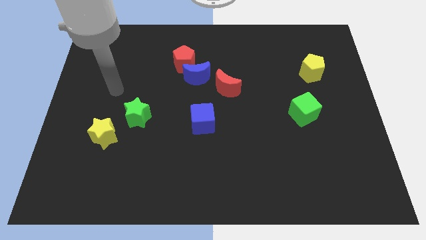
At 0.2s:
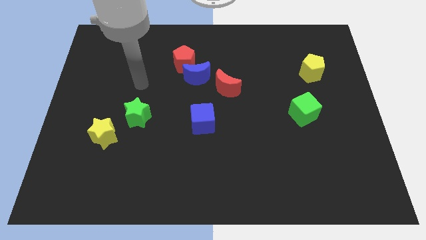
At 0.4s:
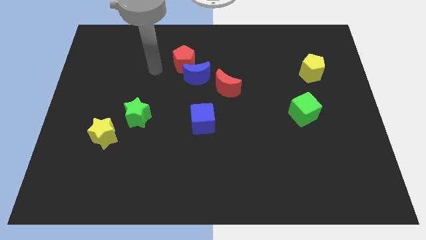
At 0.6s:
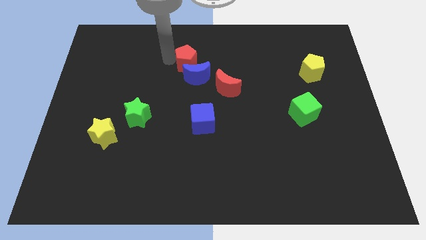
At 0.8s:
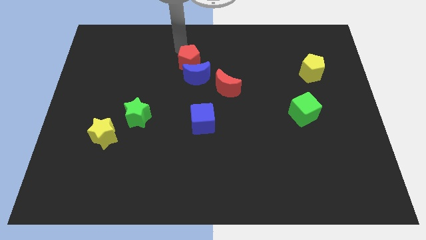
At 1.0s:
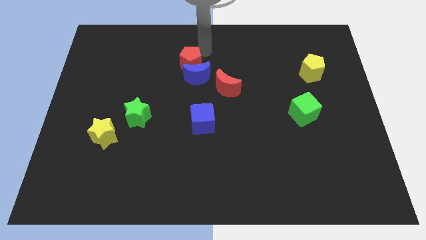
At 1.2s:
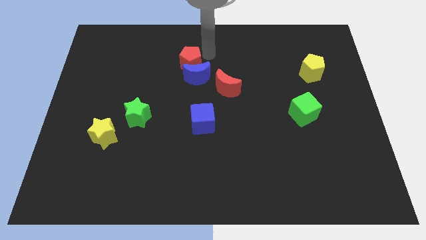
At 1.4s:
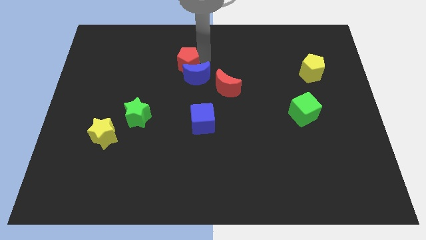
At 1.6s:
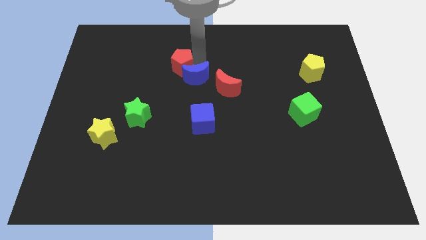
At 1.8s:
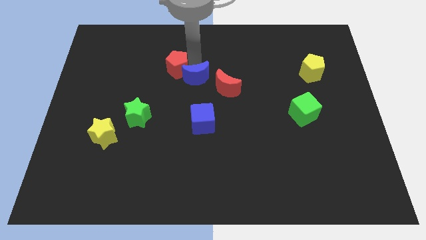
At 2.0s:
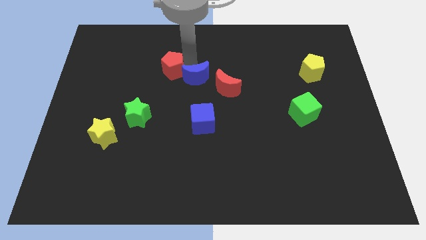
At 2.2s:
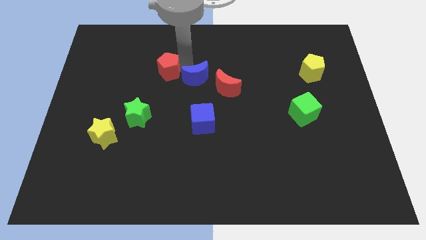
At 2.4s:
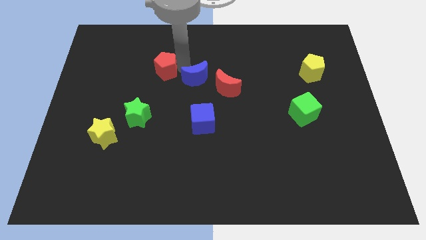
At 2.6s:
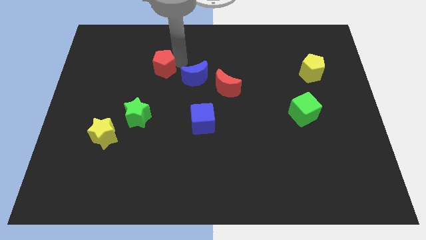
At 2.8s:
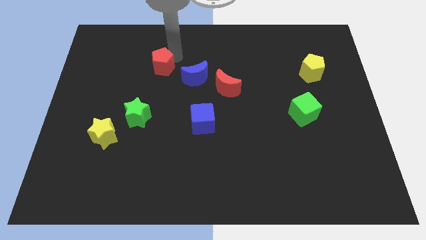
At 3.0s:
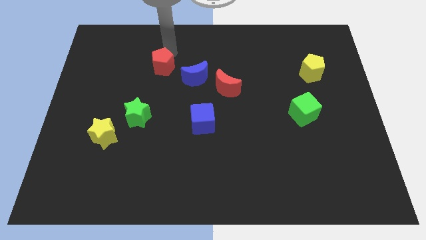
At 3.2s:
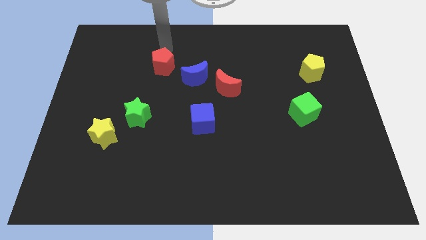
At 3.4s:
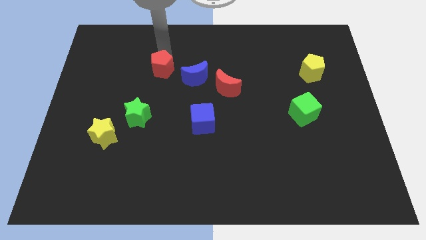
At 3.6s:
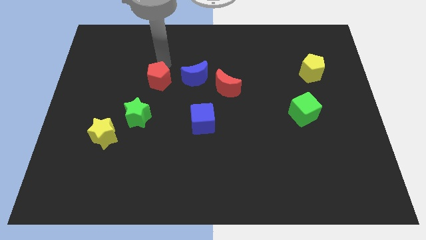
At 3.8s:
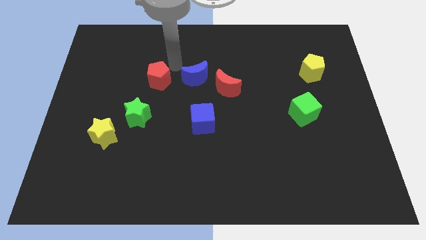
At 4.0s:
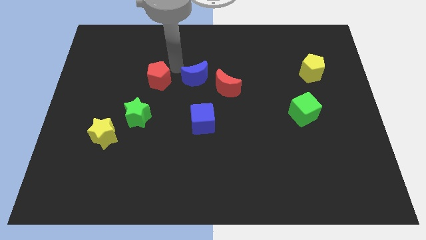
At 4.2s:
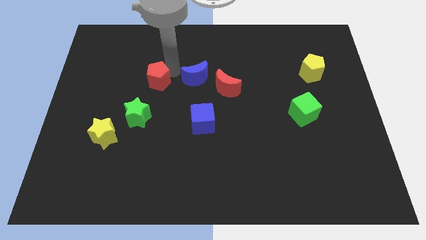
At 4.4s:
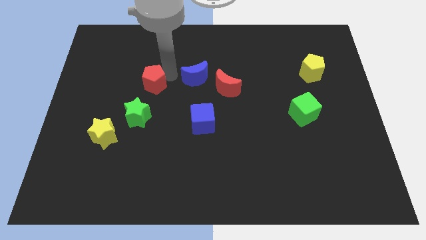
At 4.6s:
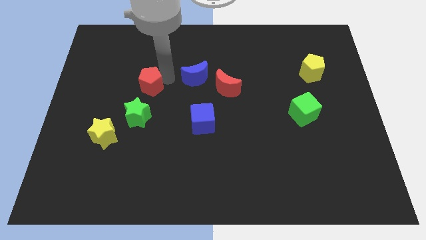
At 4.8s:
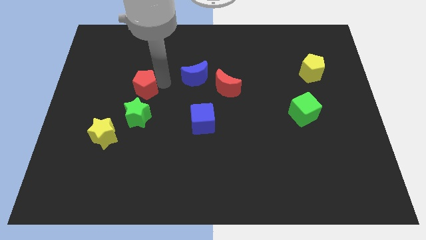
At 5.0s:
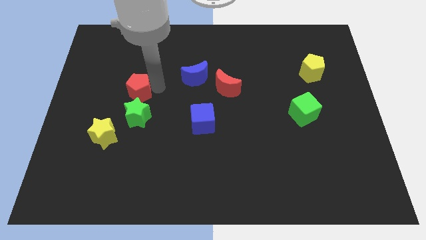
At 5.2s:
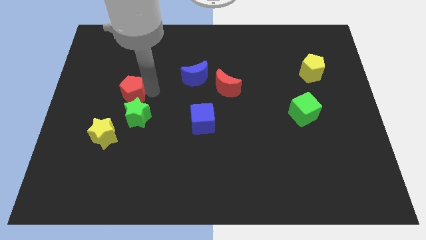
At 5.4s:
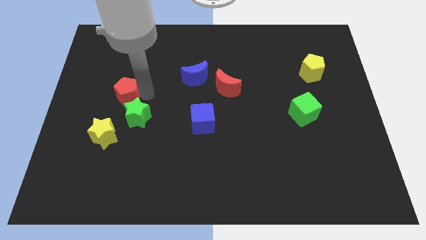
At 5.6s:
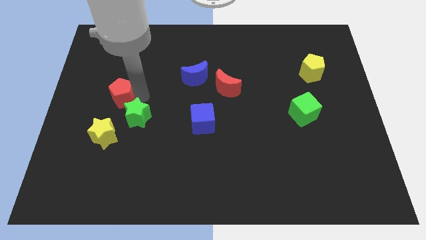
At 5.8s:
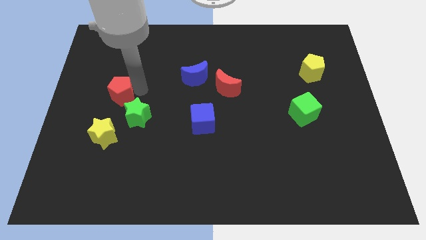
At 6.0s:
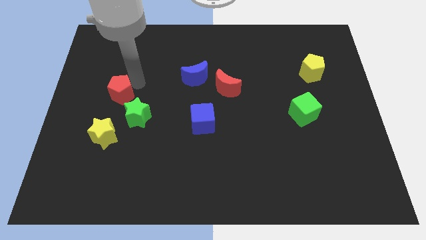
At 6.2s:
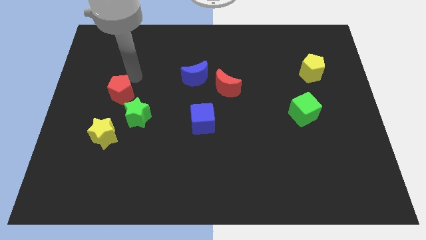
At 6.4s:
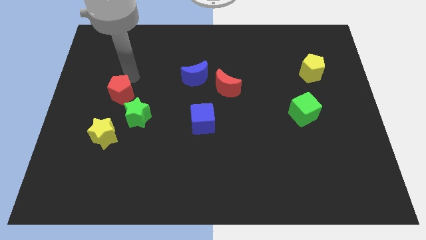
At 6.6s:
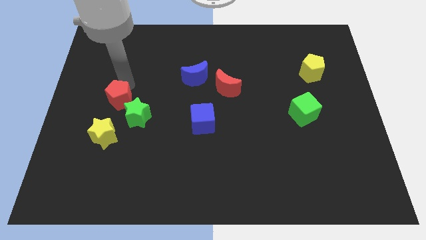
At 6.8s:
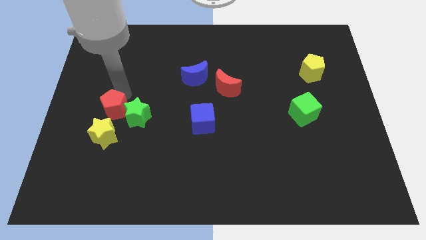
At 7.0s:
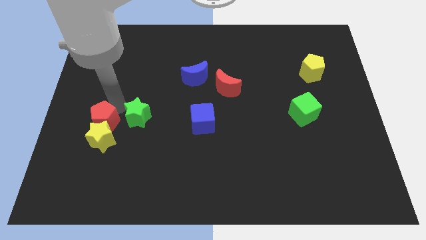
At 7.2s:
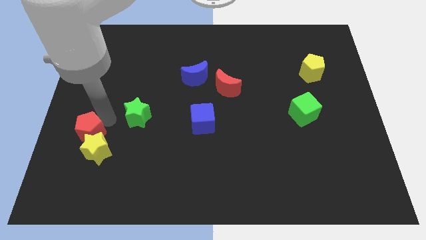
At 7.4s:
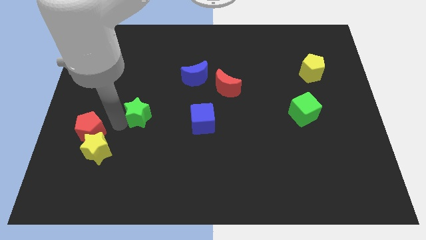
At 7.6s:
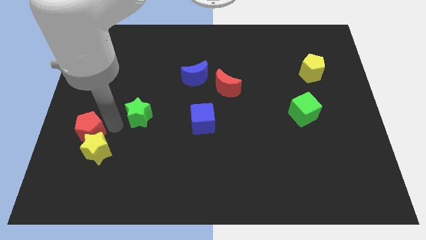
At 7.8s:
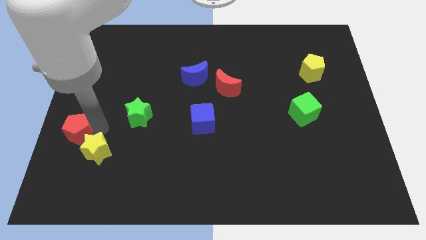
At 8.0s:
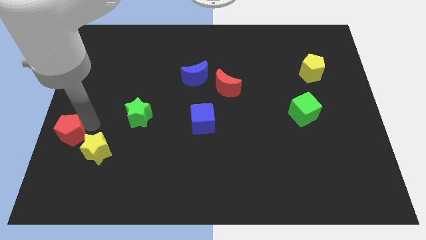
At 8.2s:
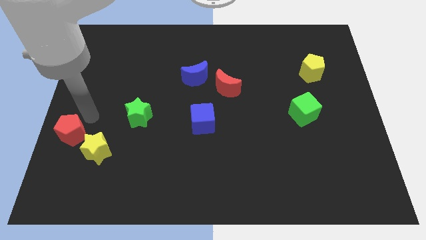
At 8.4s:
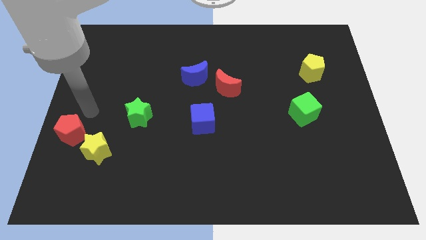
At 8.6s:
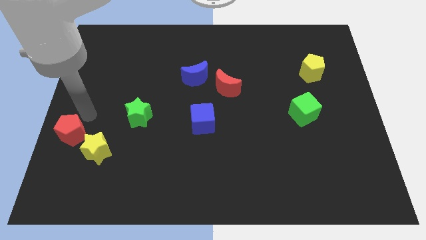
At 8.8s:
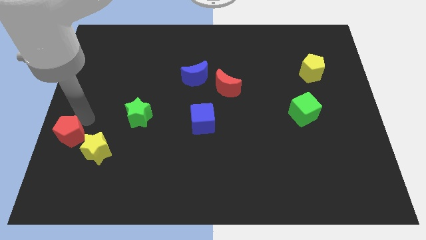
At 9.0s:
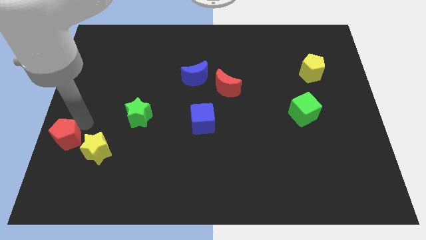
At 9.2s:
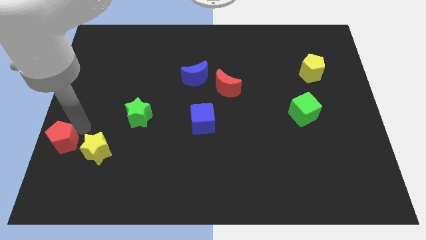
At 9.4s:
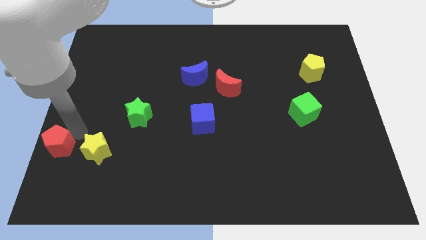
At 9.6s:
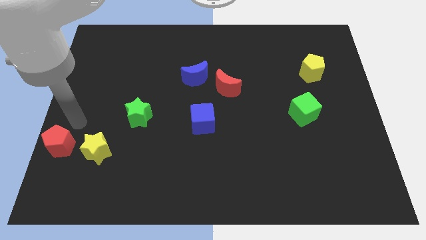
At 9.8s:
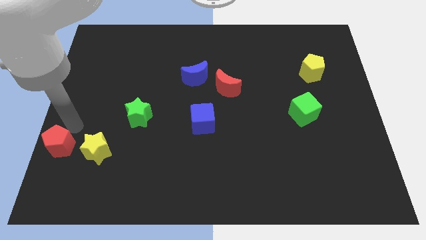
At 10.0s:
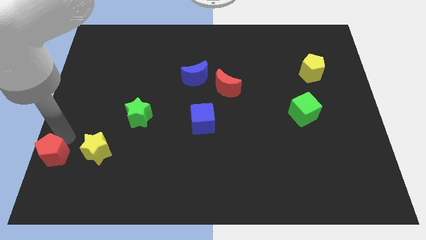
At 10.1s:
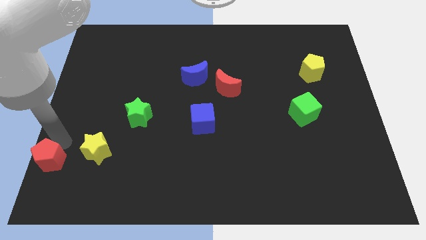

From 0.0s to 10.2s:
slide the red pentagon to the bottom left corner
